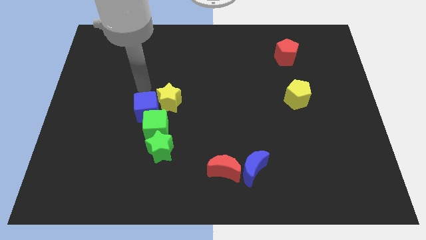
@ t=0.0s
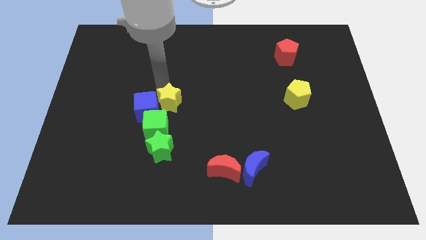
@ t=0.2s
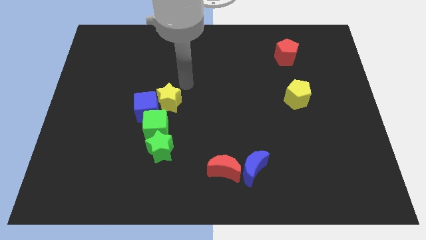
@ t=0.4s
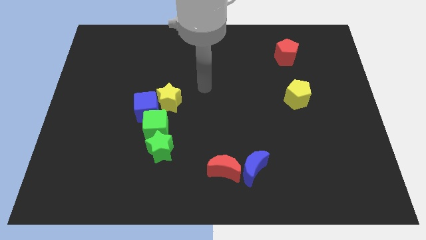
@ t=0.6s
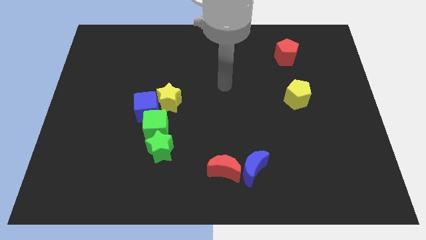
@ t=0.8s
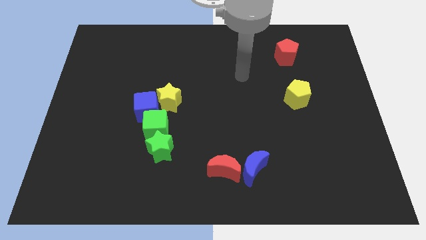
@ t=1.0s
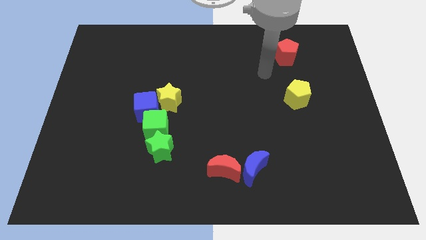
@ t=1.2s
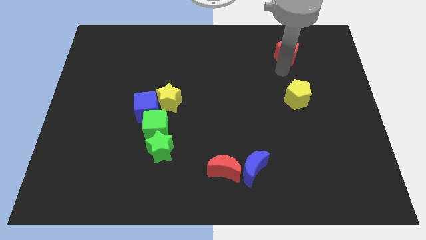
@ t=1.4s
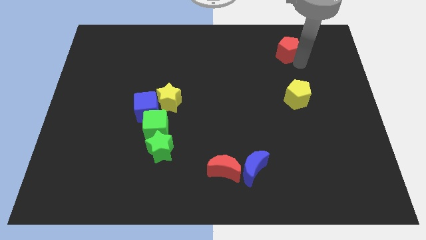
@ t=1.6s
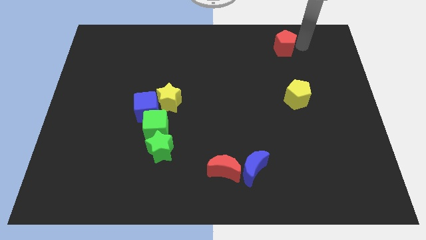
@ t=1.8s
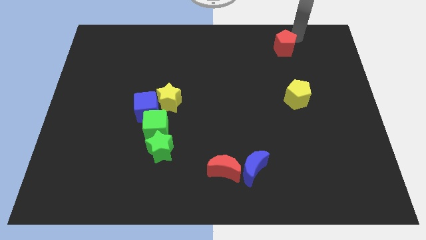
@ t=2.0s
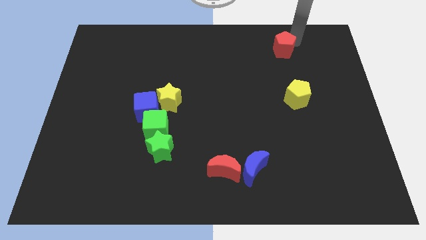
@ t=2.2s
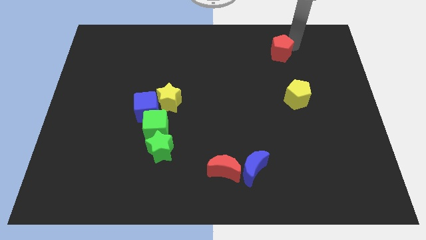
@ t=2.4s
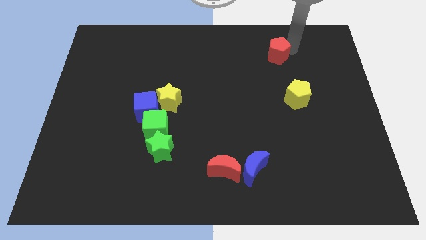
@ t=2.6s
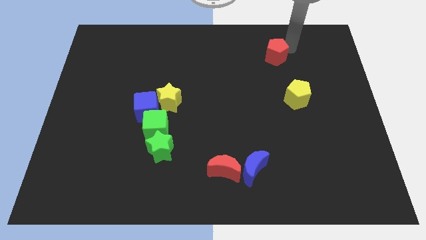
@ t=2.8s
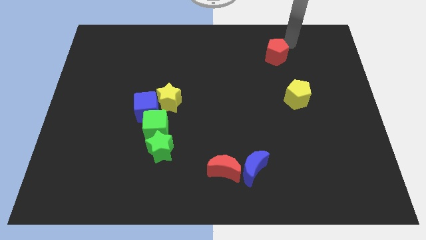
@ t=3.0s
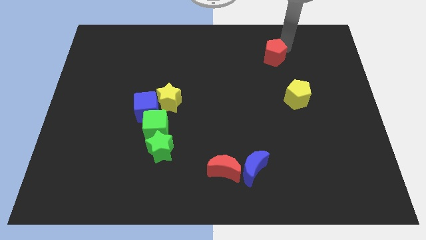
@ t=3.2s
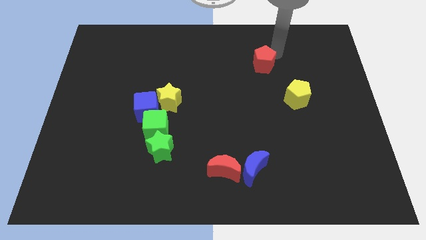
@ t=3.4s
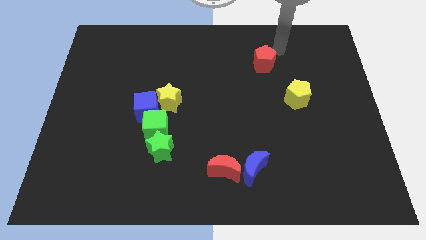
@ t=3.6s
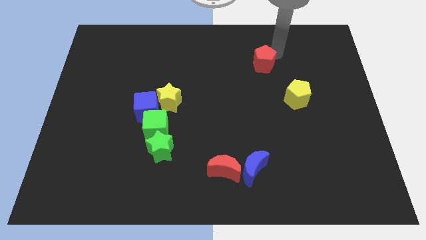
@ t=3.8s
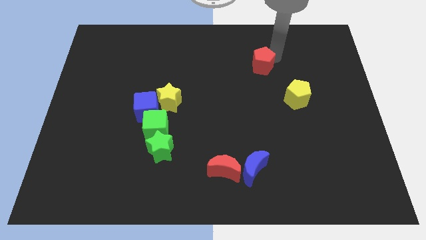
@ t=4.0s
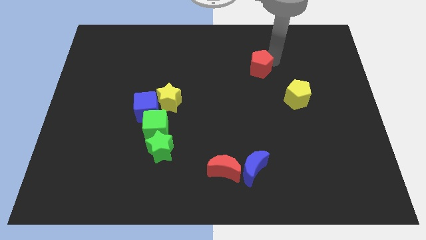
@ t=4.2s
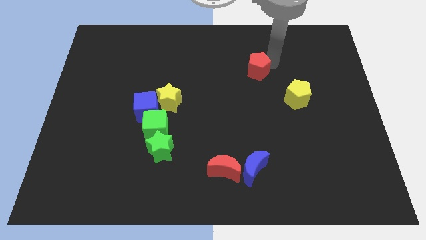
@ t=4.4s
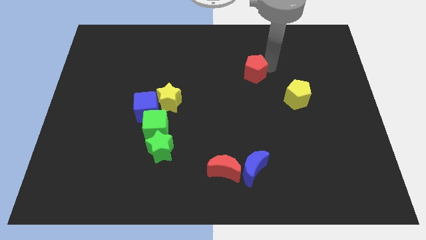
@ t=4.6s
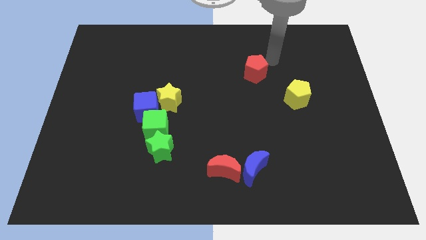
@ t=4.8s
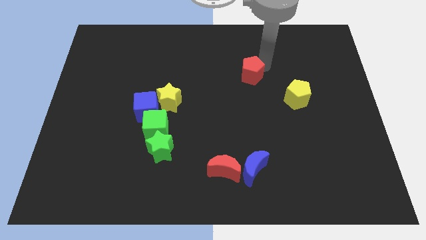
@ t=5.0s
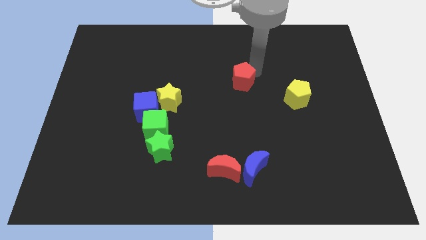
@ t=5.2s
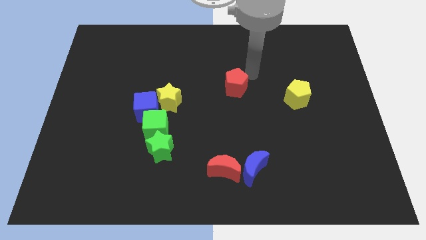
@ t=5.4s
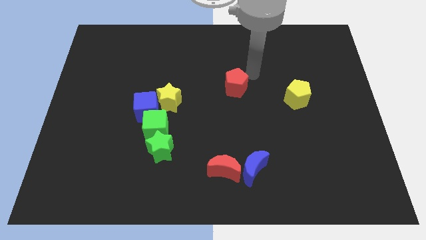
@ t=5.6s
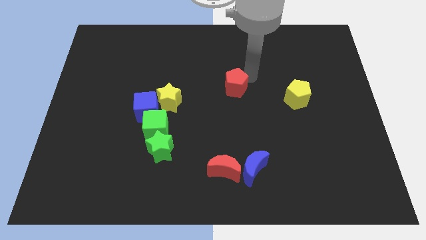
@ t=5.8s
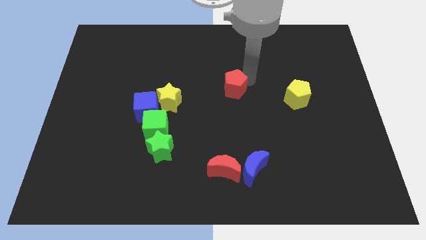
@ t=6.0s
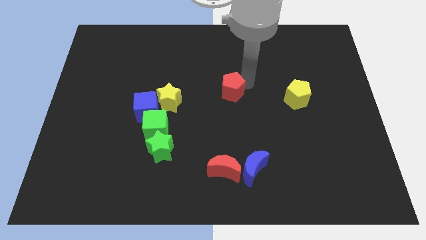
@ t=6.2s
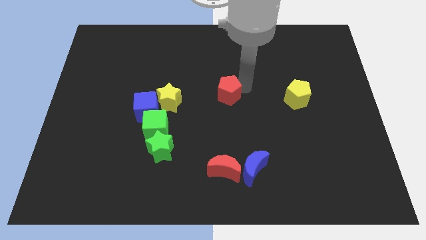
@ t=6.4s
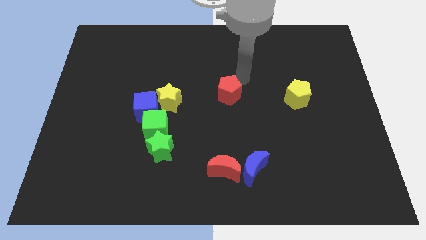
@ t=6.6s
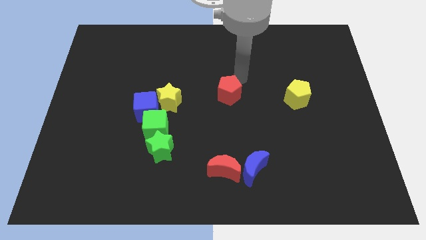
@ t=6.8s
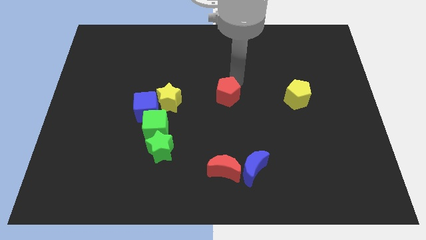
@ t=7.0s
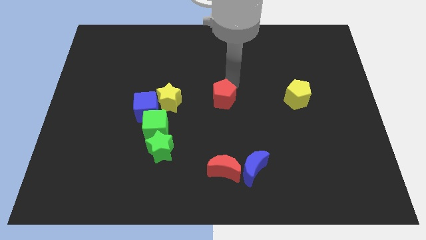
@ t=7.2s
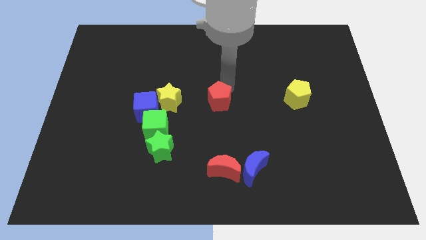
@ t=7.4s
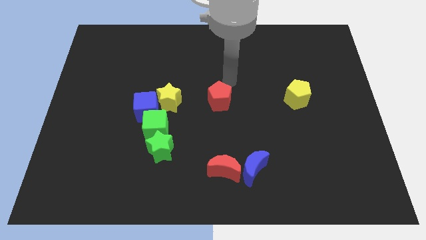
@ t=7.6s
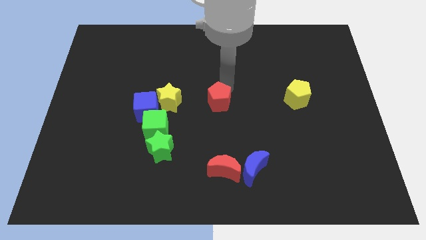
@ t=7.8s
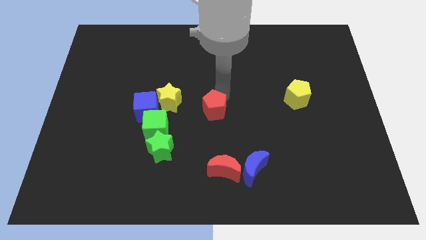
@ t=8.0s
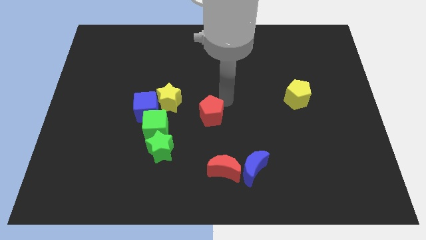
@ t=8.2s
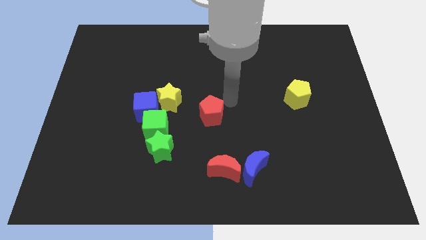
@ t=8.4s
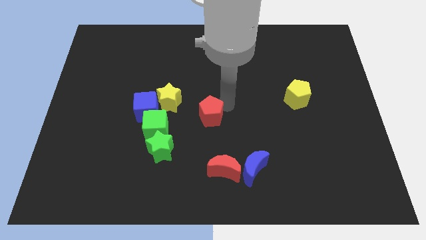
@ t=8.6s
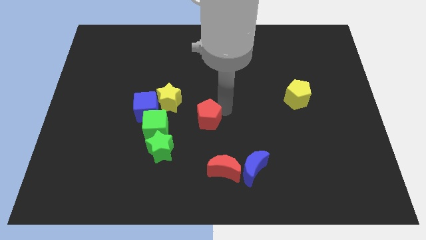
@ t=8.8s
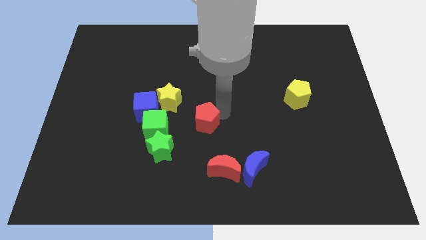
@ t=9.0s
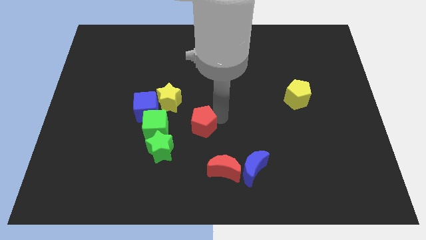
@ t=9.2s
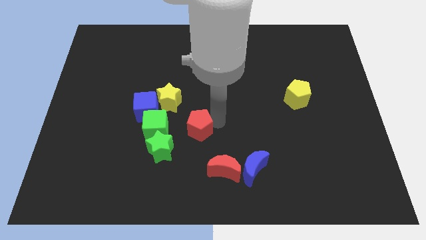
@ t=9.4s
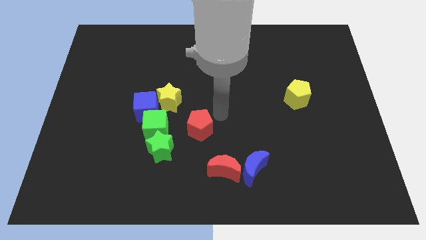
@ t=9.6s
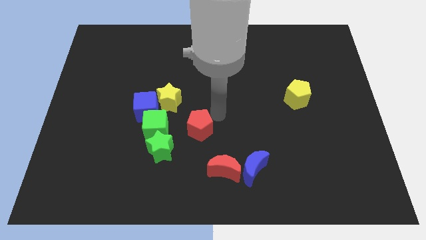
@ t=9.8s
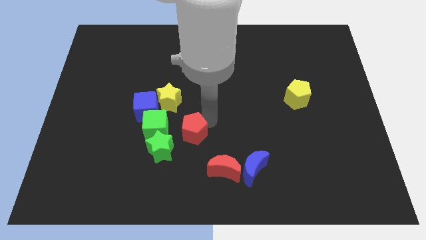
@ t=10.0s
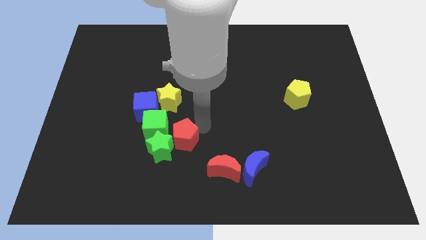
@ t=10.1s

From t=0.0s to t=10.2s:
put the red pentagon next to the green star

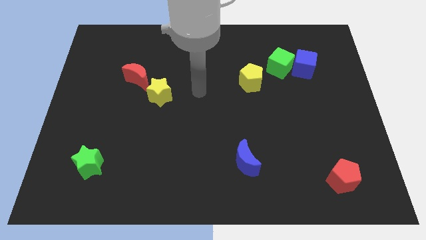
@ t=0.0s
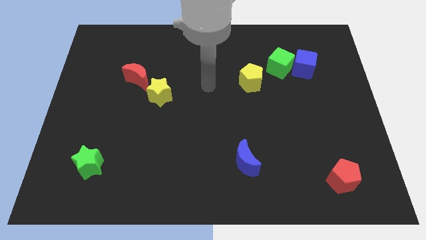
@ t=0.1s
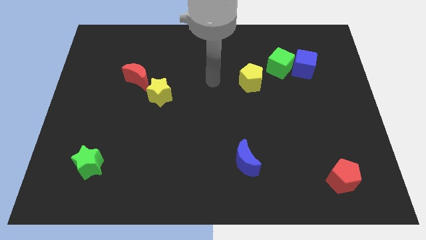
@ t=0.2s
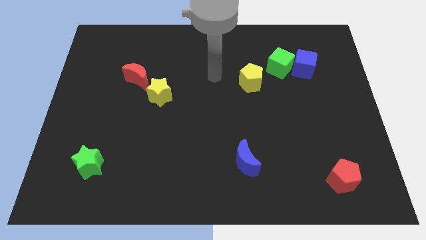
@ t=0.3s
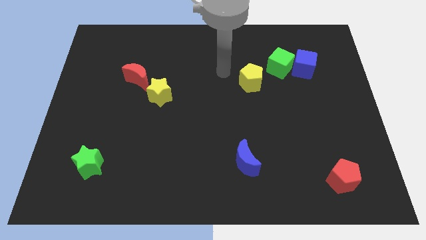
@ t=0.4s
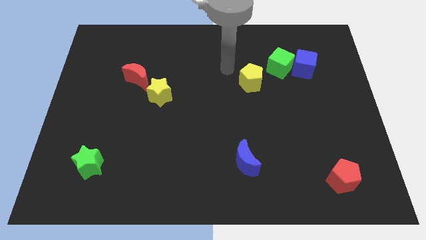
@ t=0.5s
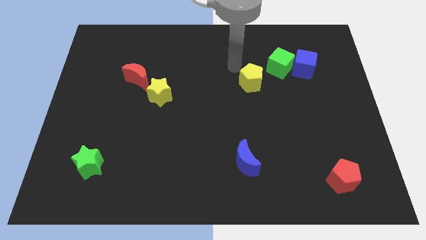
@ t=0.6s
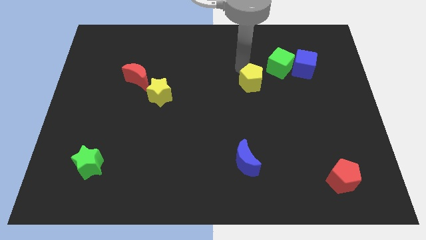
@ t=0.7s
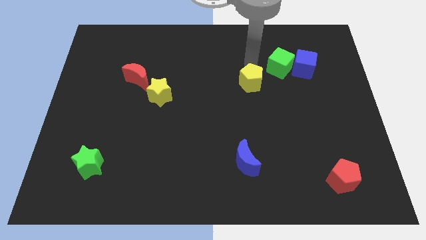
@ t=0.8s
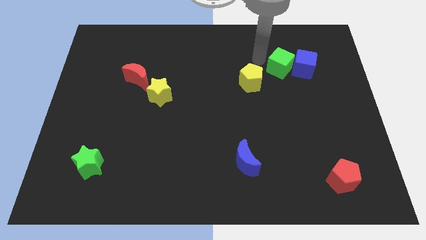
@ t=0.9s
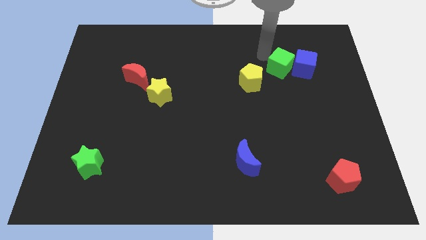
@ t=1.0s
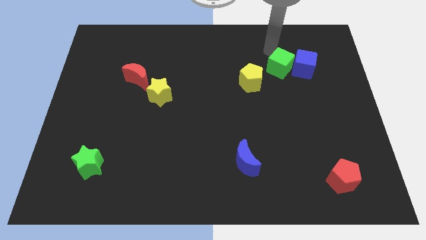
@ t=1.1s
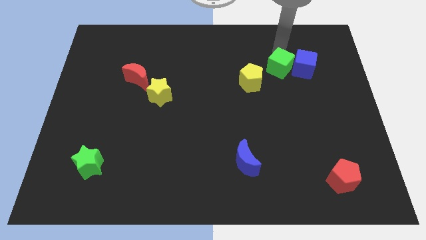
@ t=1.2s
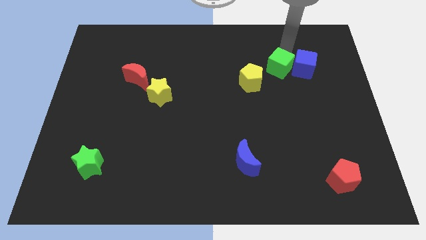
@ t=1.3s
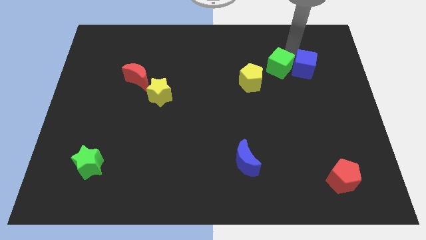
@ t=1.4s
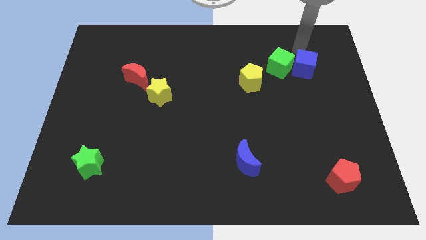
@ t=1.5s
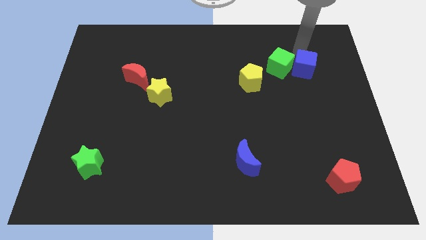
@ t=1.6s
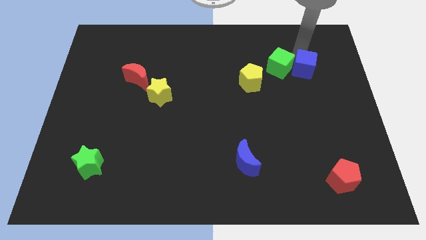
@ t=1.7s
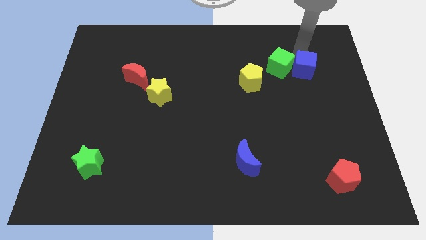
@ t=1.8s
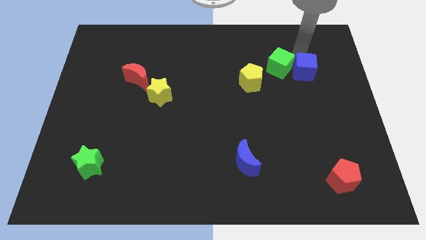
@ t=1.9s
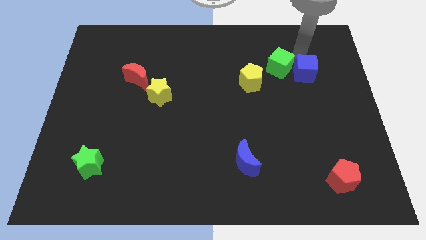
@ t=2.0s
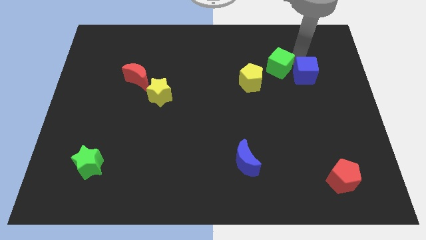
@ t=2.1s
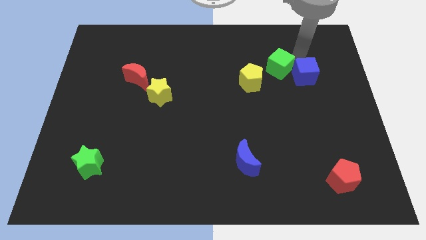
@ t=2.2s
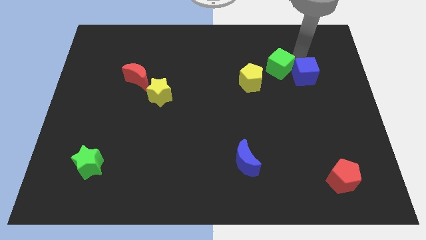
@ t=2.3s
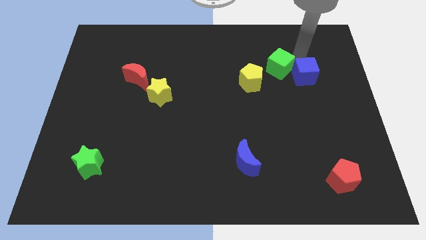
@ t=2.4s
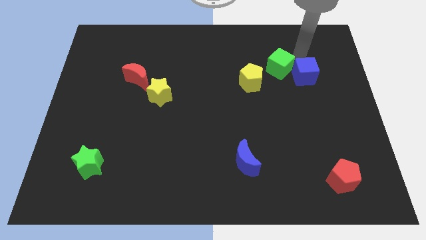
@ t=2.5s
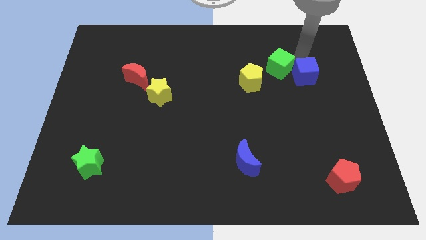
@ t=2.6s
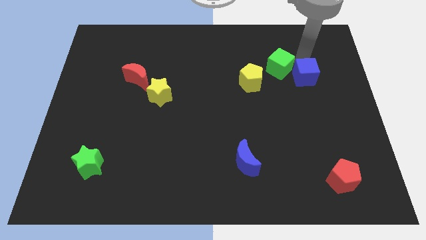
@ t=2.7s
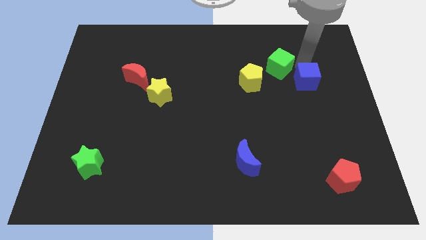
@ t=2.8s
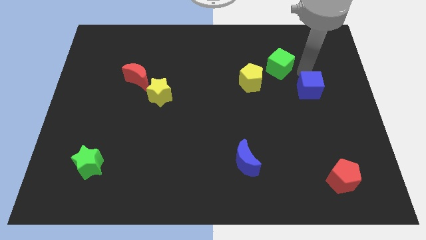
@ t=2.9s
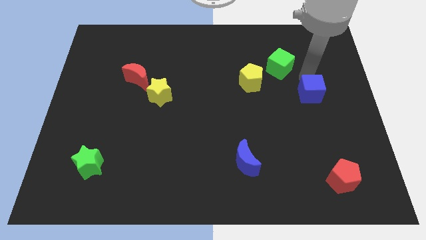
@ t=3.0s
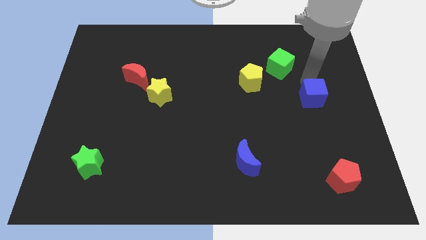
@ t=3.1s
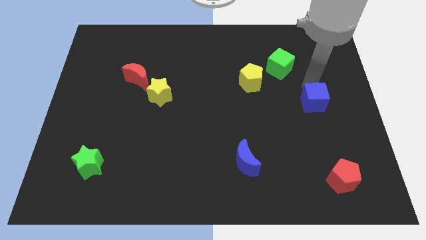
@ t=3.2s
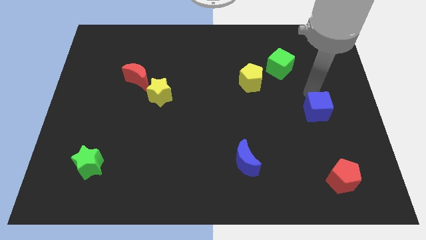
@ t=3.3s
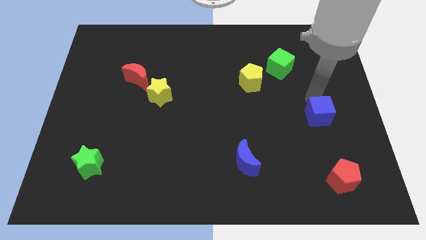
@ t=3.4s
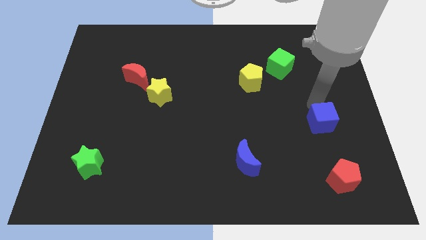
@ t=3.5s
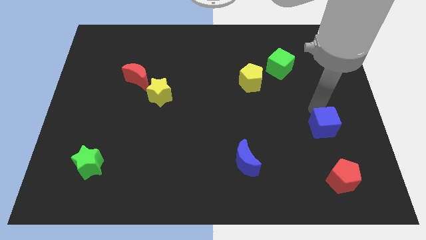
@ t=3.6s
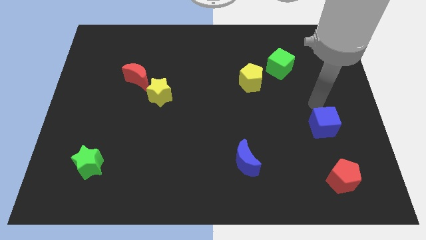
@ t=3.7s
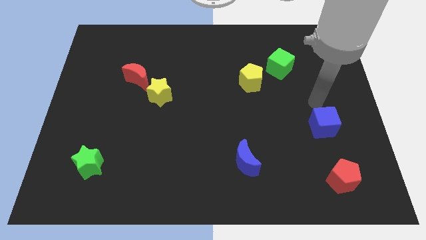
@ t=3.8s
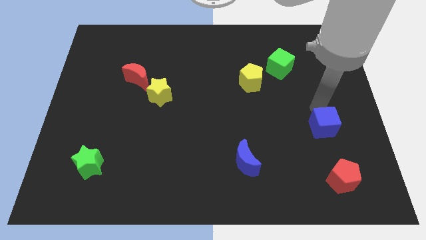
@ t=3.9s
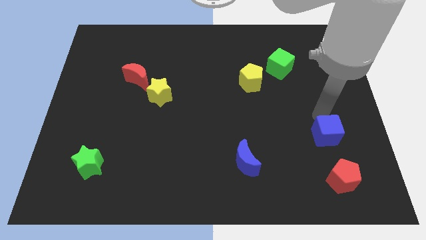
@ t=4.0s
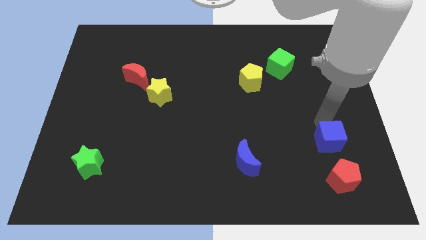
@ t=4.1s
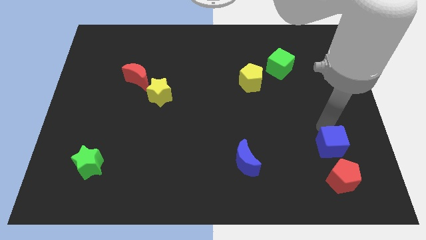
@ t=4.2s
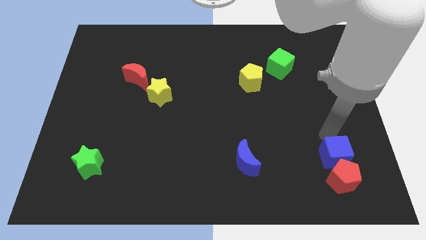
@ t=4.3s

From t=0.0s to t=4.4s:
put the blue cube close to the red pentagon
